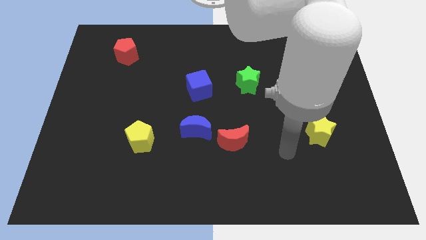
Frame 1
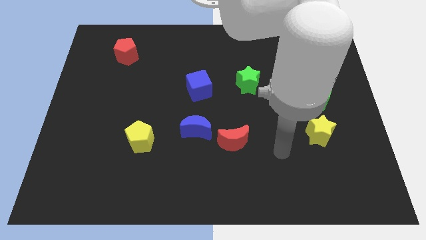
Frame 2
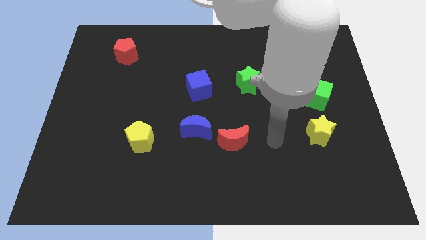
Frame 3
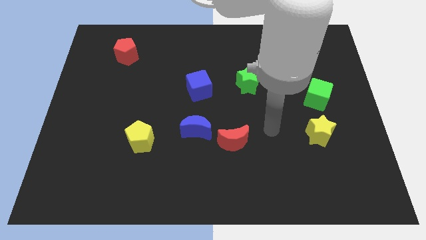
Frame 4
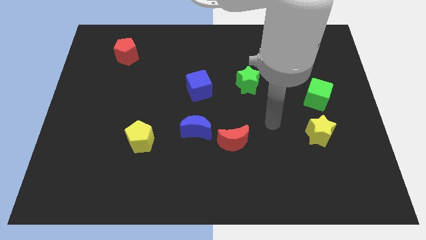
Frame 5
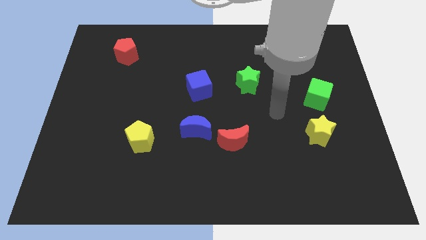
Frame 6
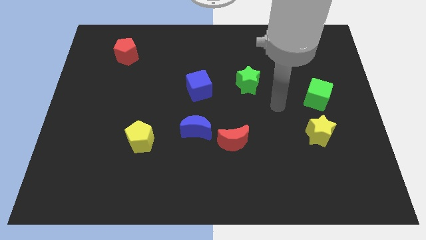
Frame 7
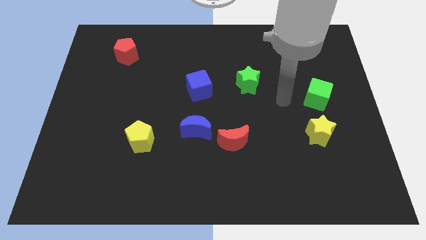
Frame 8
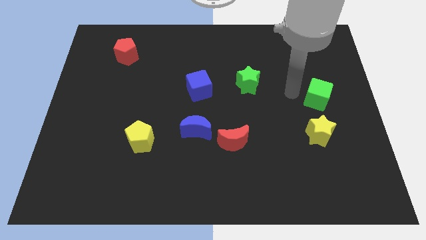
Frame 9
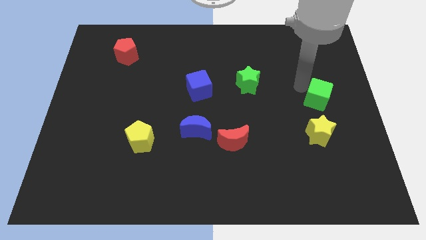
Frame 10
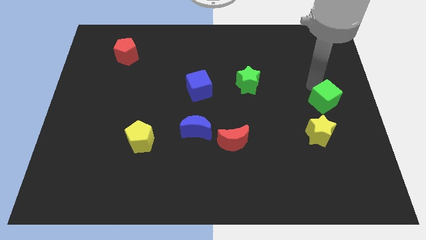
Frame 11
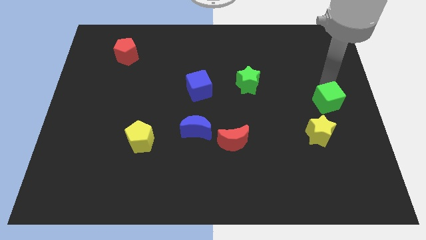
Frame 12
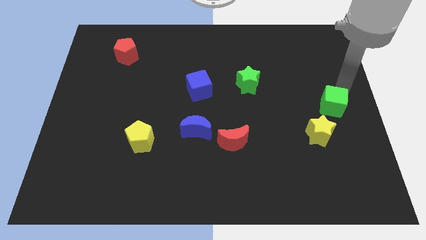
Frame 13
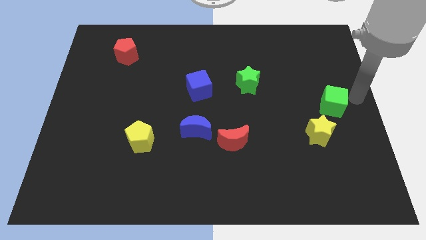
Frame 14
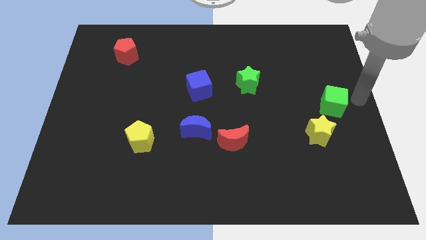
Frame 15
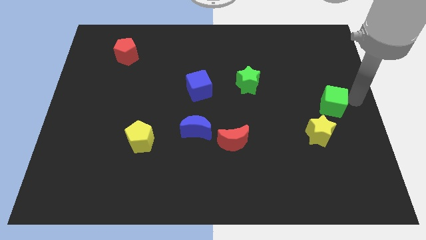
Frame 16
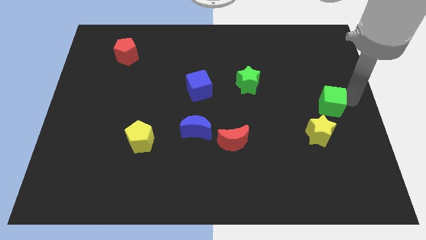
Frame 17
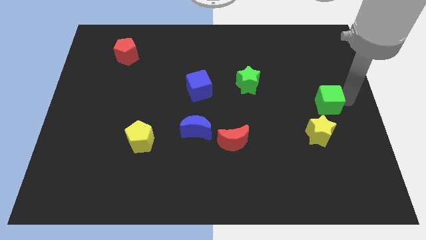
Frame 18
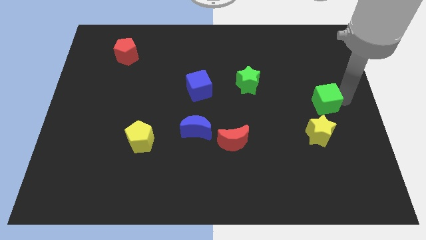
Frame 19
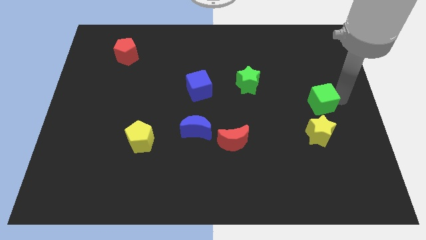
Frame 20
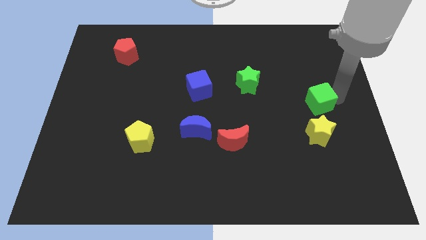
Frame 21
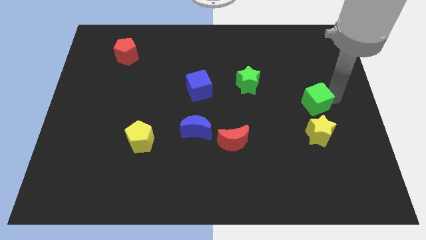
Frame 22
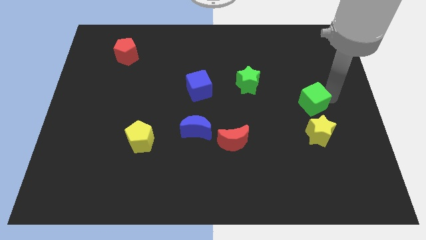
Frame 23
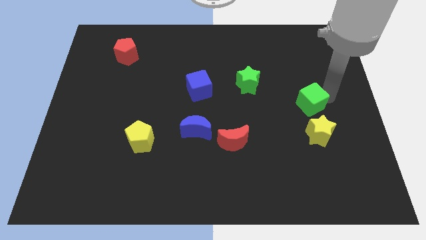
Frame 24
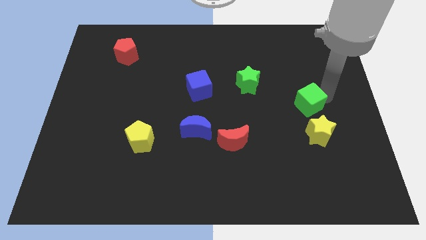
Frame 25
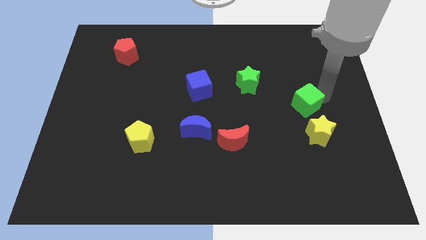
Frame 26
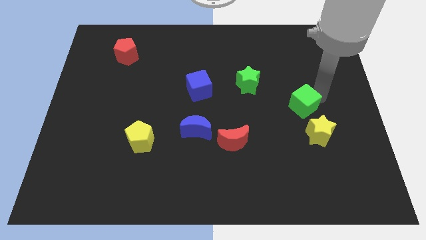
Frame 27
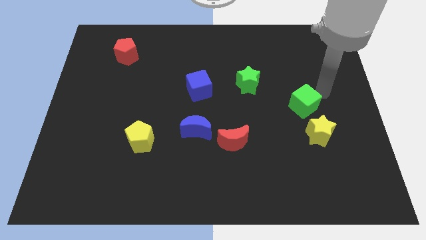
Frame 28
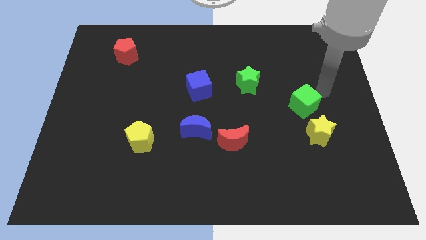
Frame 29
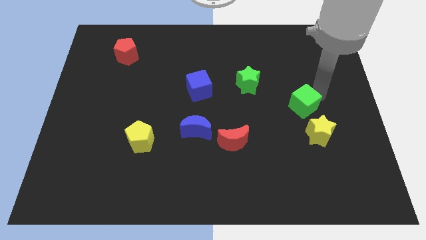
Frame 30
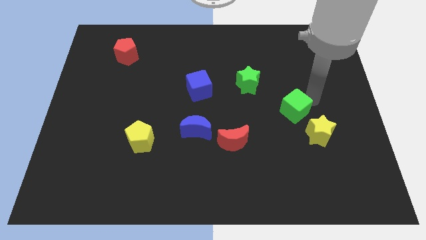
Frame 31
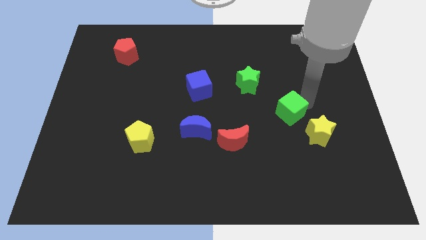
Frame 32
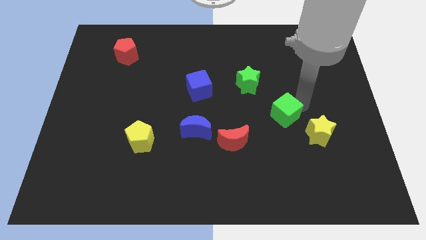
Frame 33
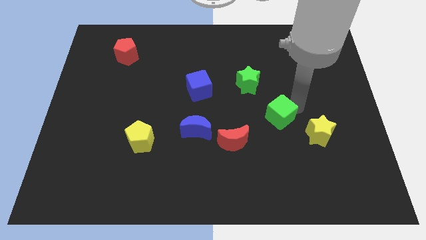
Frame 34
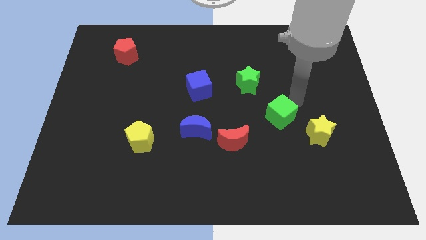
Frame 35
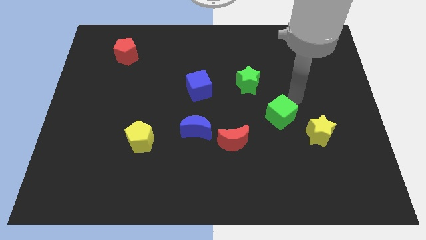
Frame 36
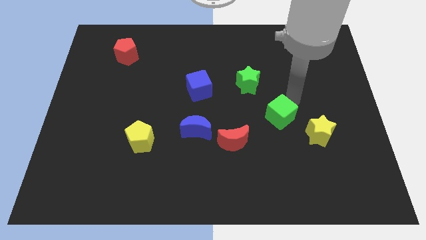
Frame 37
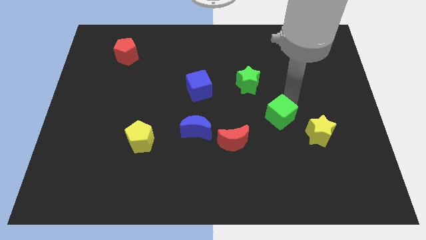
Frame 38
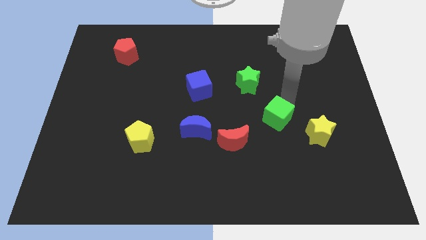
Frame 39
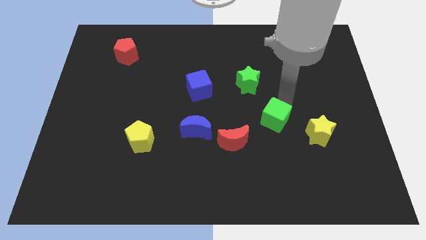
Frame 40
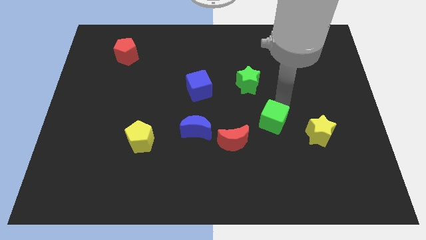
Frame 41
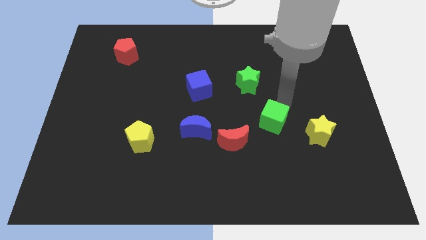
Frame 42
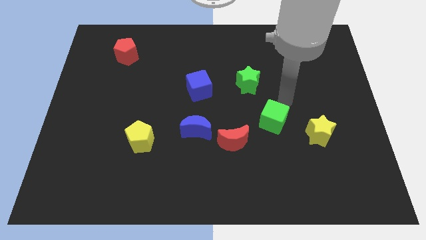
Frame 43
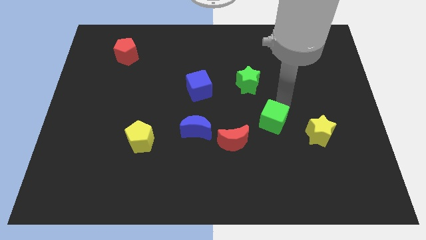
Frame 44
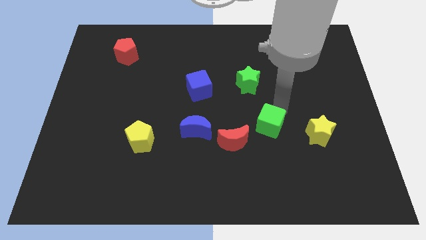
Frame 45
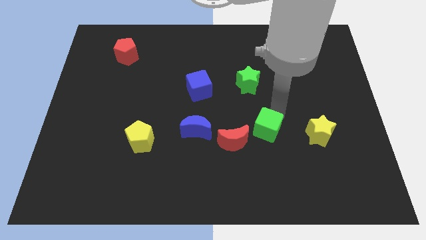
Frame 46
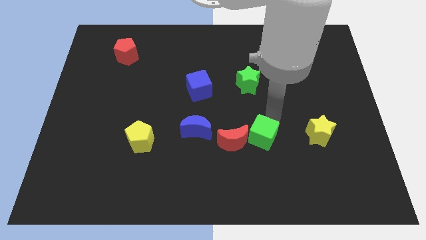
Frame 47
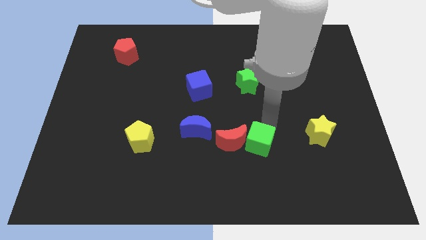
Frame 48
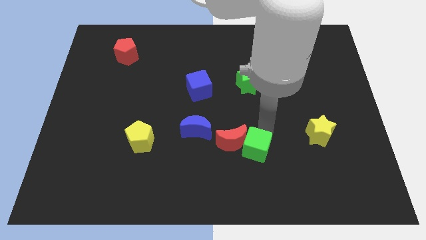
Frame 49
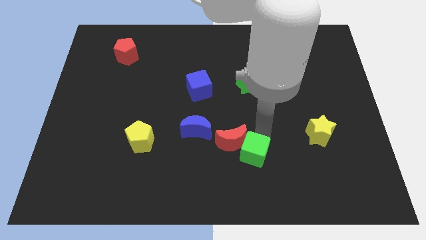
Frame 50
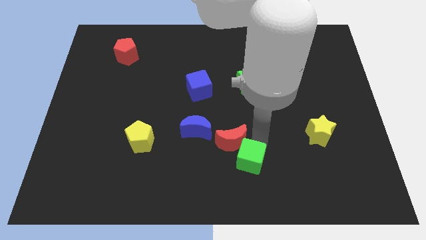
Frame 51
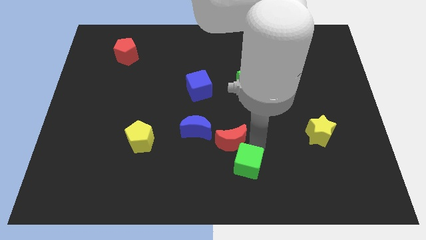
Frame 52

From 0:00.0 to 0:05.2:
slide the green cube to the bottom

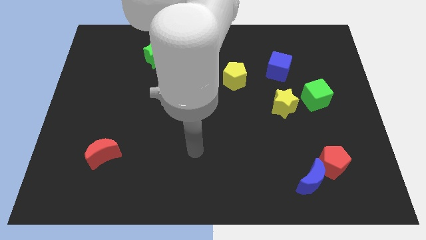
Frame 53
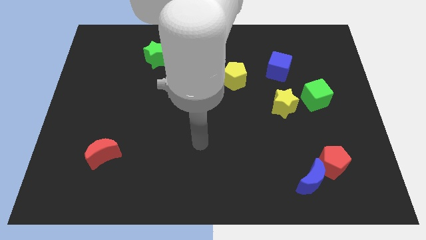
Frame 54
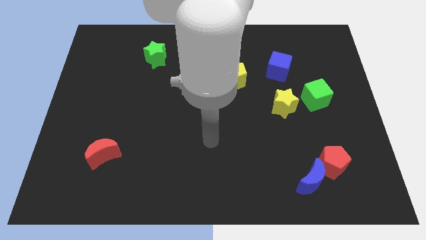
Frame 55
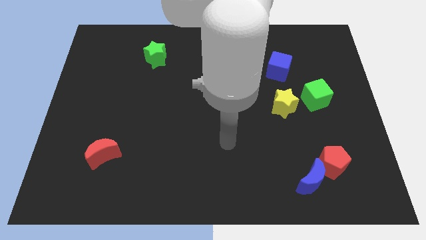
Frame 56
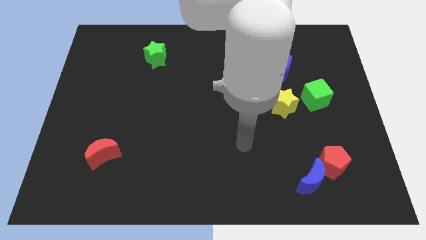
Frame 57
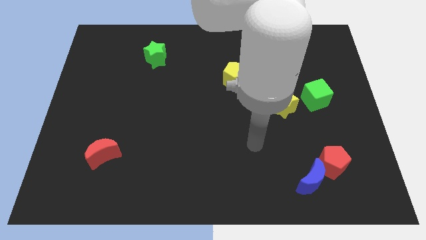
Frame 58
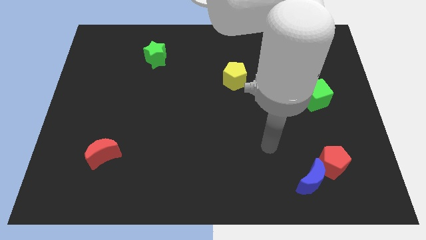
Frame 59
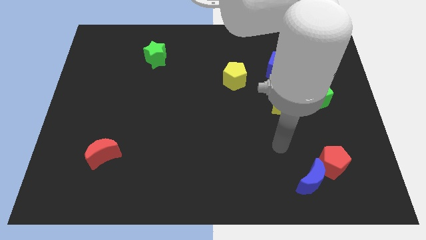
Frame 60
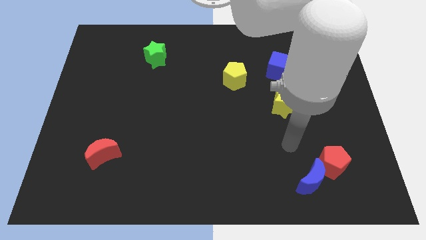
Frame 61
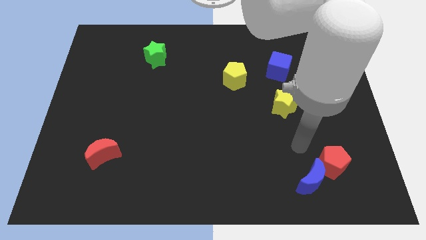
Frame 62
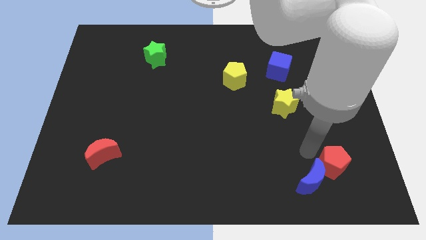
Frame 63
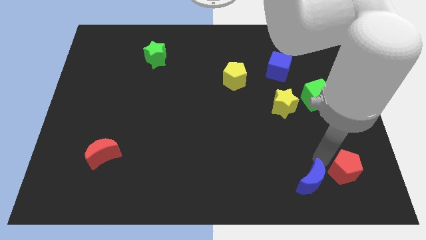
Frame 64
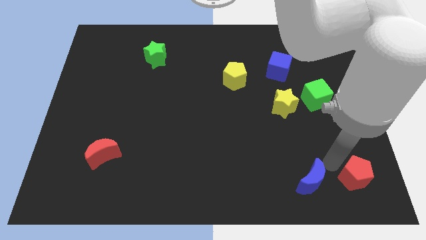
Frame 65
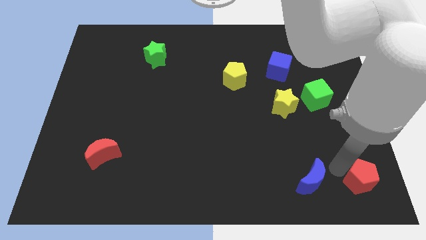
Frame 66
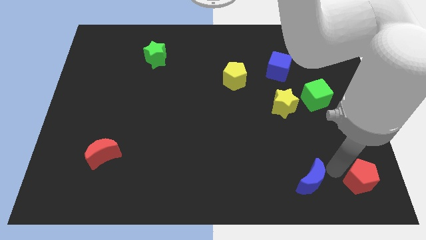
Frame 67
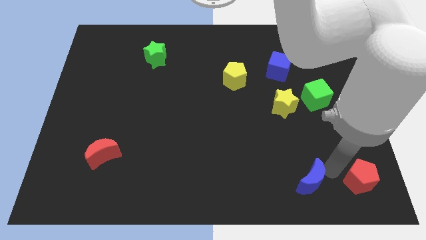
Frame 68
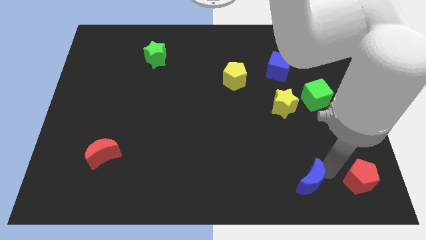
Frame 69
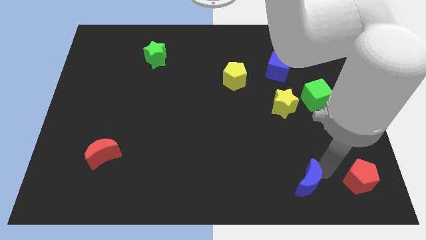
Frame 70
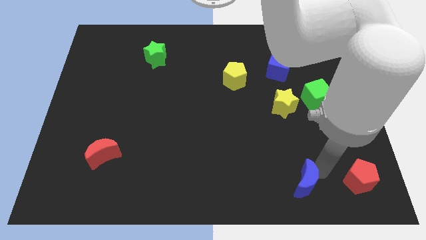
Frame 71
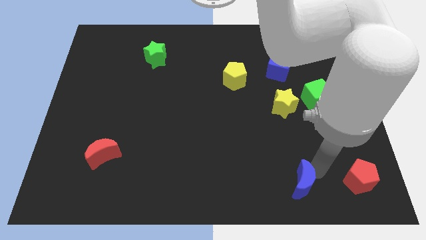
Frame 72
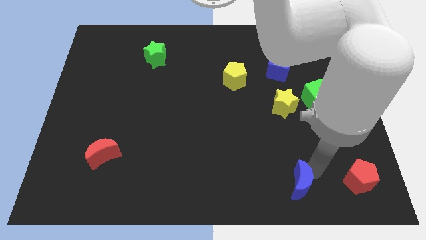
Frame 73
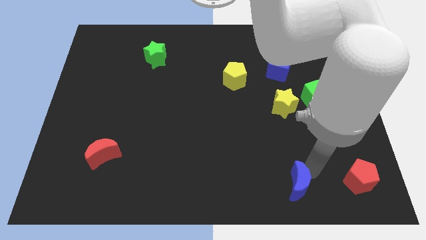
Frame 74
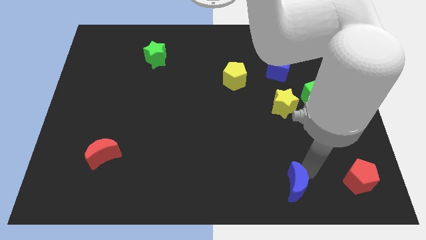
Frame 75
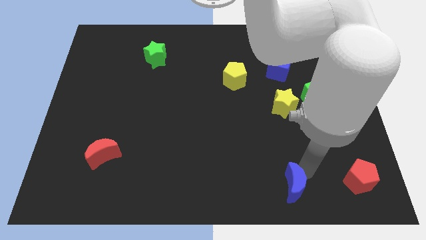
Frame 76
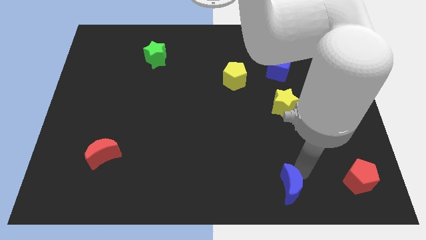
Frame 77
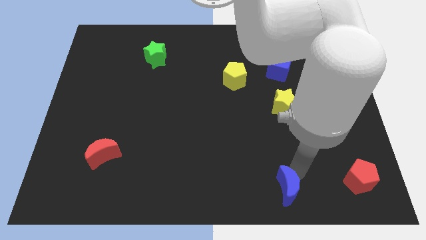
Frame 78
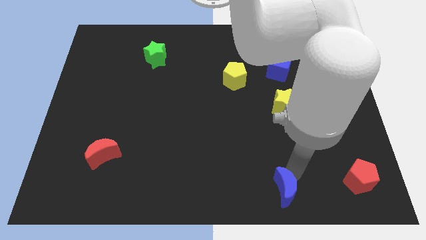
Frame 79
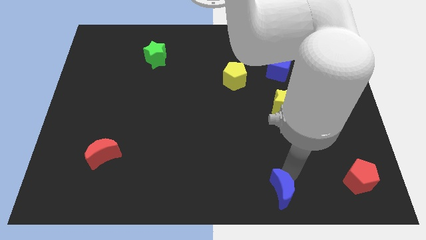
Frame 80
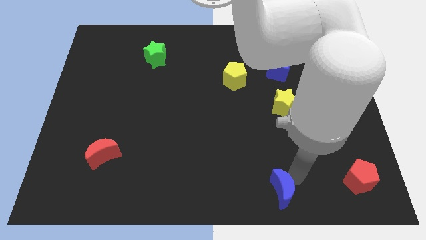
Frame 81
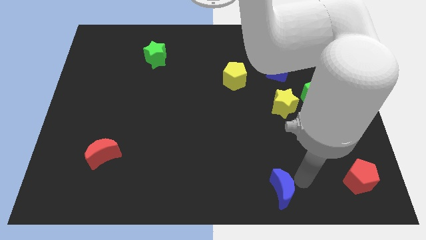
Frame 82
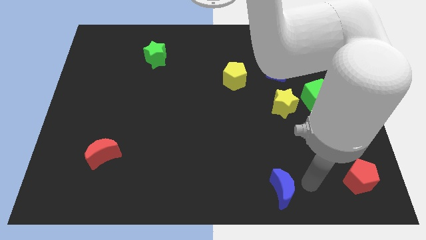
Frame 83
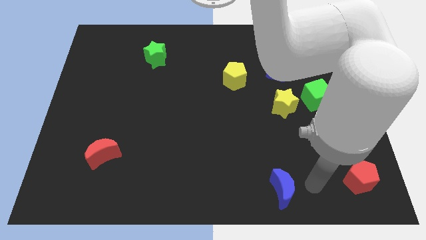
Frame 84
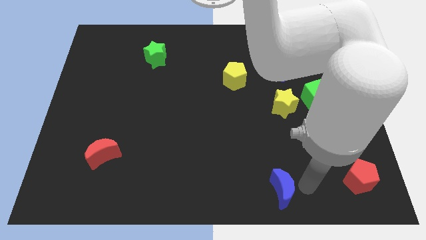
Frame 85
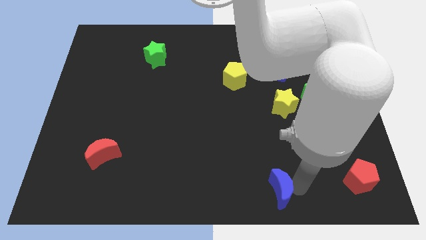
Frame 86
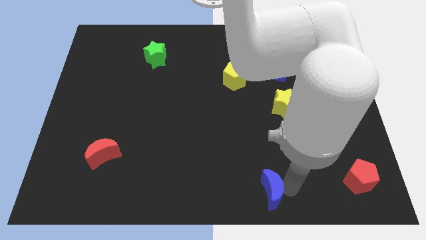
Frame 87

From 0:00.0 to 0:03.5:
put the blue moon to the bottom
